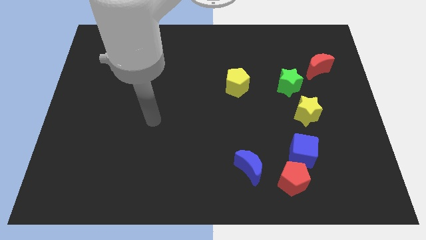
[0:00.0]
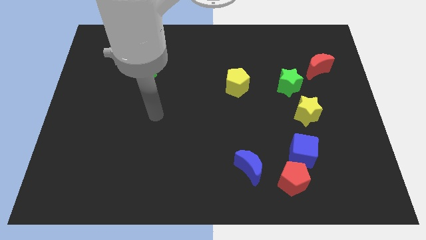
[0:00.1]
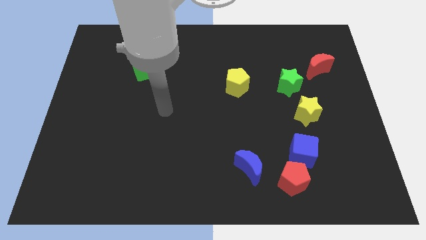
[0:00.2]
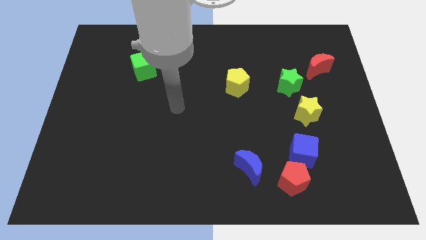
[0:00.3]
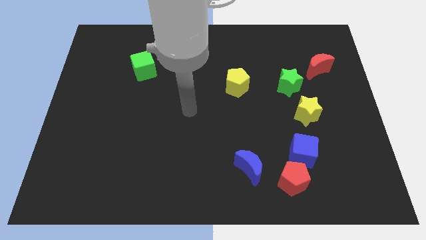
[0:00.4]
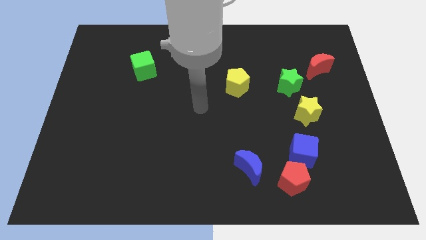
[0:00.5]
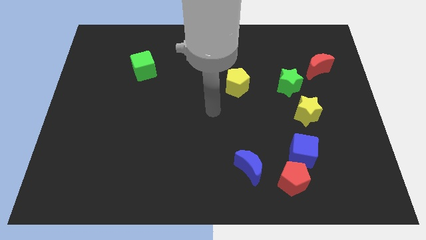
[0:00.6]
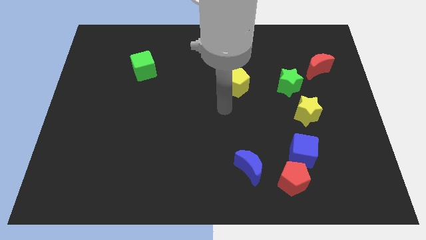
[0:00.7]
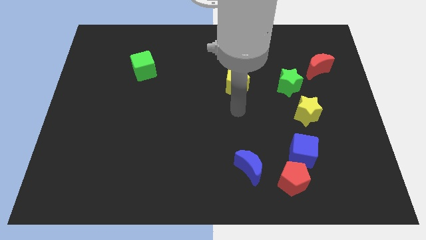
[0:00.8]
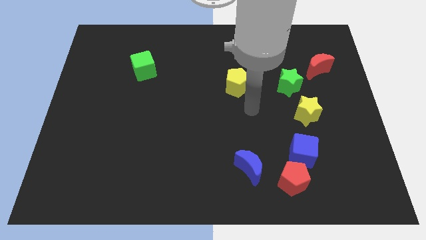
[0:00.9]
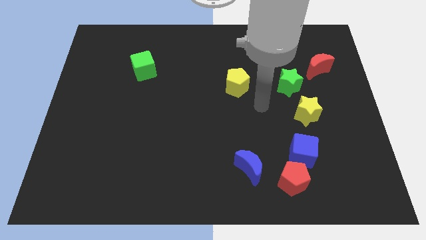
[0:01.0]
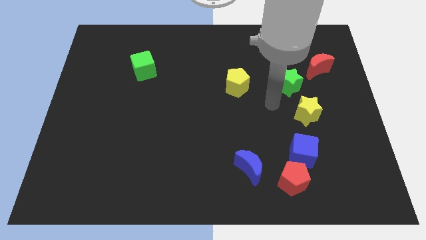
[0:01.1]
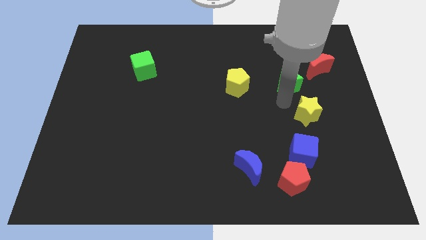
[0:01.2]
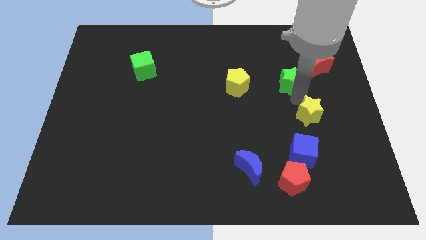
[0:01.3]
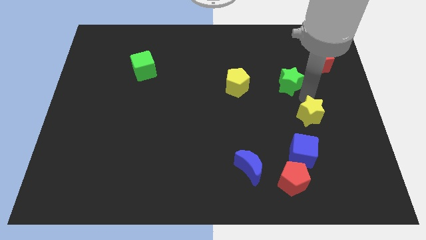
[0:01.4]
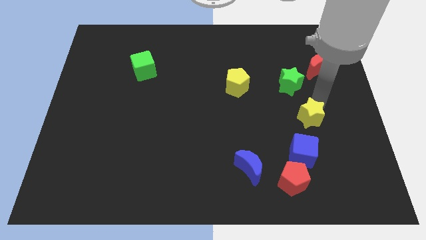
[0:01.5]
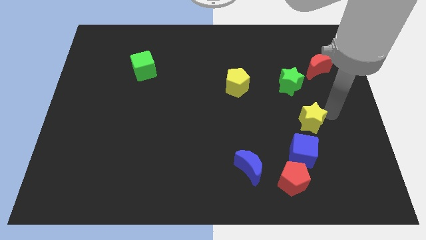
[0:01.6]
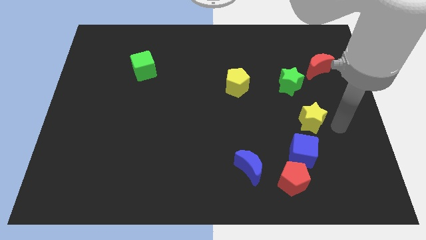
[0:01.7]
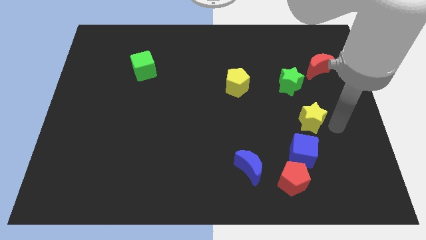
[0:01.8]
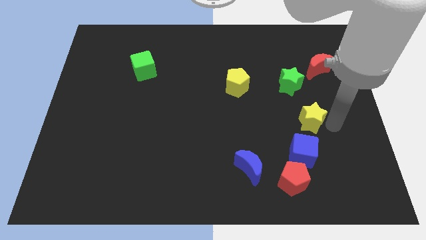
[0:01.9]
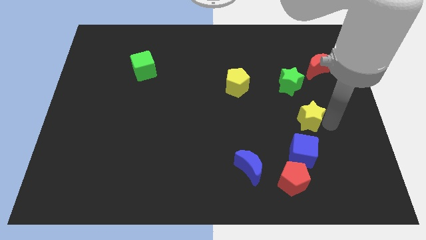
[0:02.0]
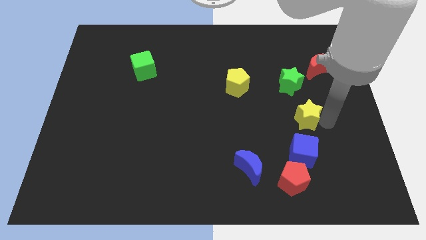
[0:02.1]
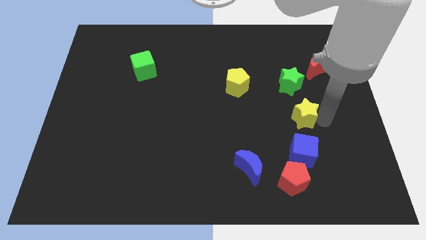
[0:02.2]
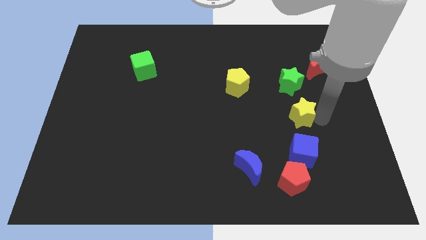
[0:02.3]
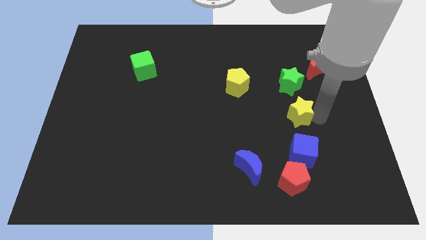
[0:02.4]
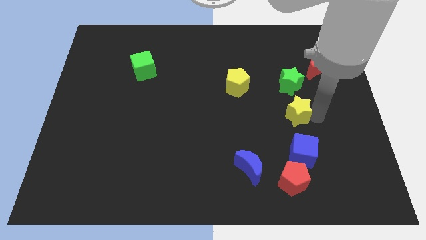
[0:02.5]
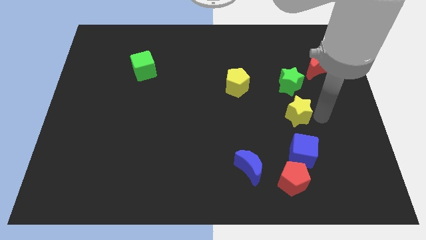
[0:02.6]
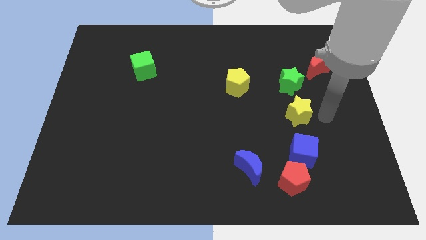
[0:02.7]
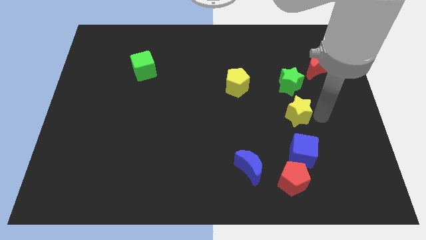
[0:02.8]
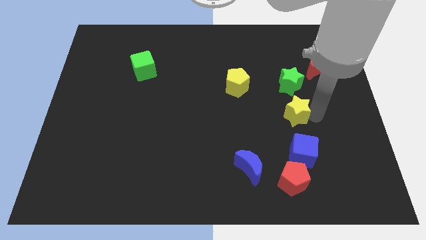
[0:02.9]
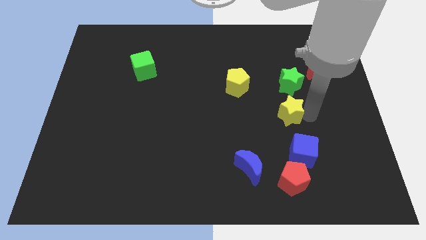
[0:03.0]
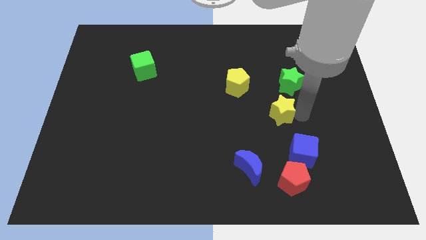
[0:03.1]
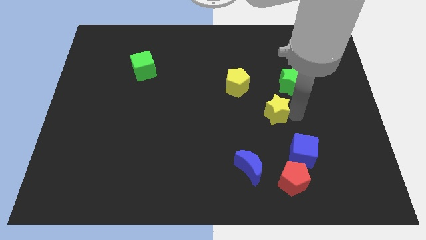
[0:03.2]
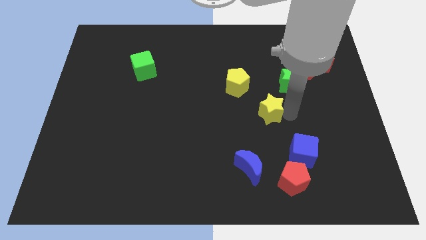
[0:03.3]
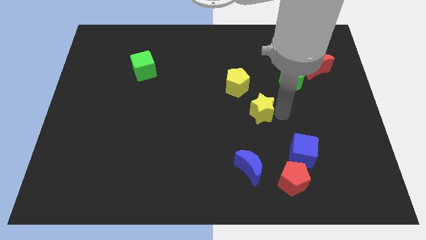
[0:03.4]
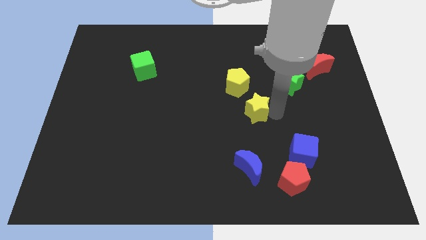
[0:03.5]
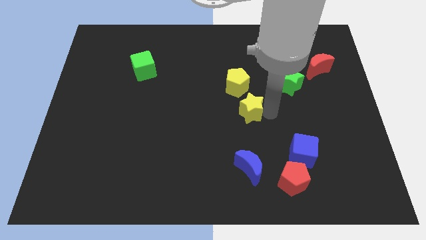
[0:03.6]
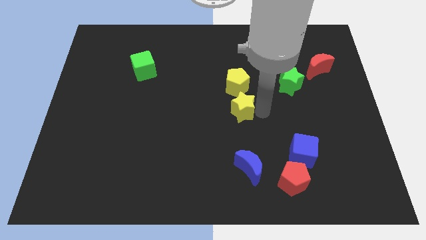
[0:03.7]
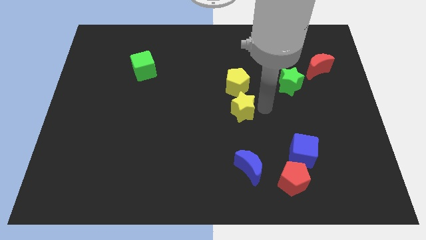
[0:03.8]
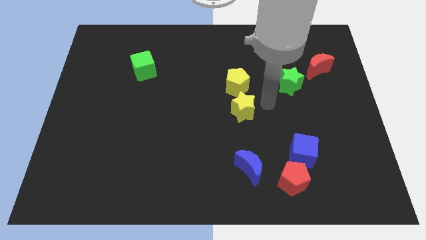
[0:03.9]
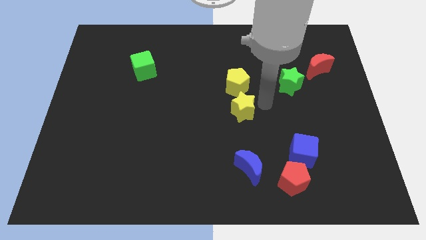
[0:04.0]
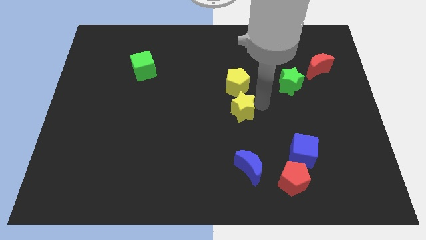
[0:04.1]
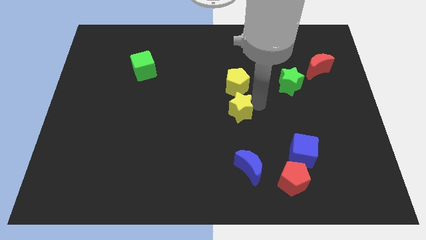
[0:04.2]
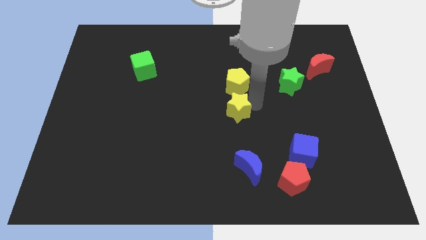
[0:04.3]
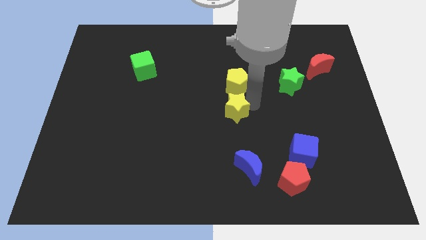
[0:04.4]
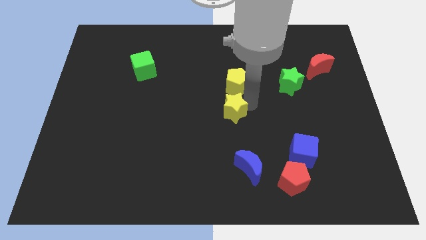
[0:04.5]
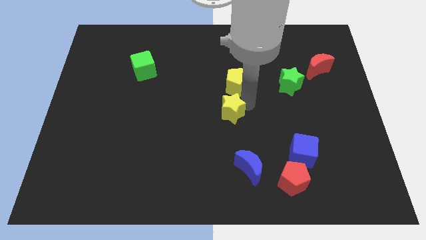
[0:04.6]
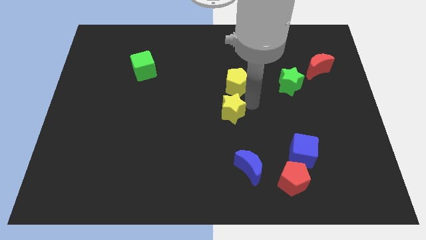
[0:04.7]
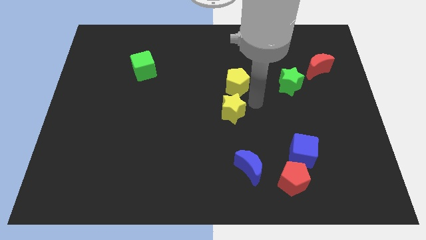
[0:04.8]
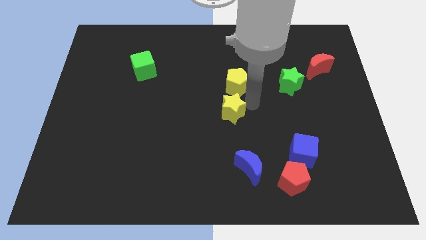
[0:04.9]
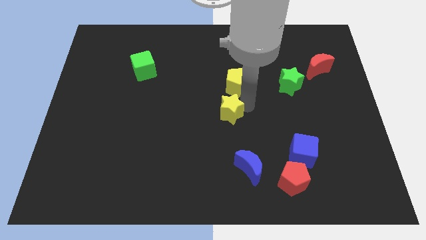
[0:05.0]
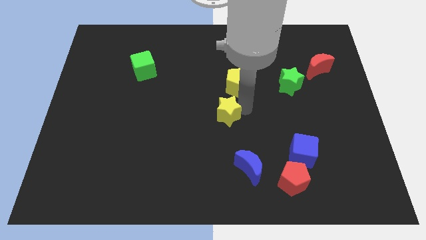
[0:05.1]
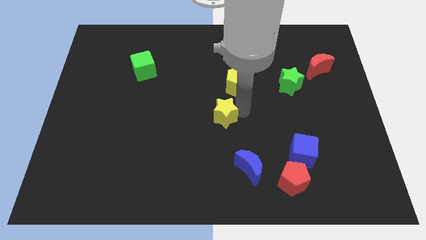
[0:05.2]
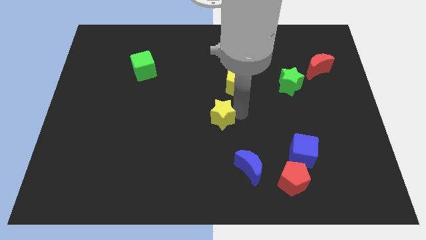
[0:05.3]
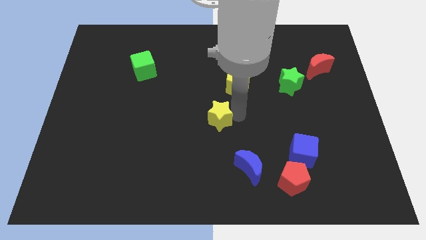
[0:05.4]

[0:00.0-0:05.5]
slide the yellow star to the left

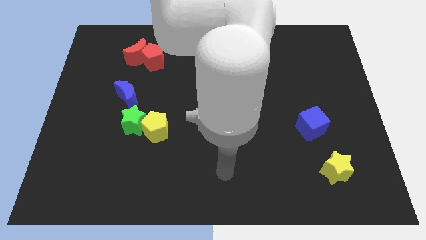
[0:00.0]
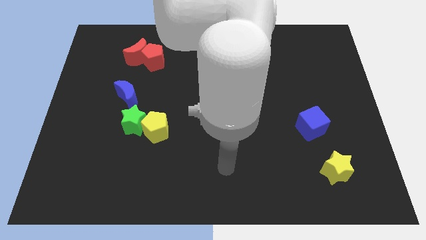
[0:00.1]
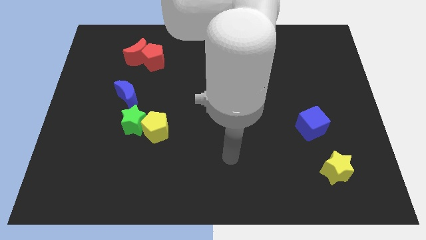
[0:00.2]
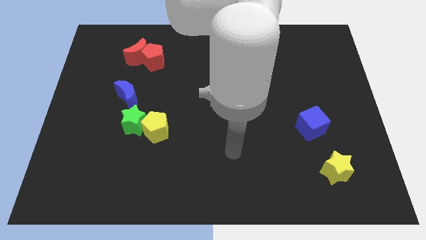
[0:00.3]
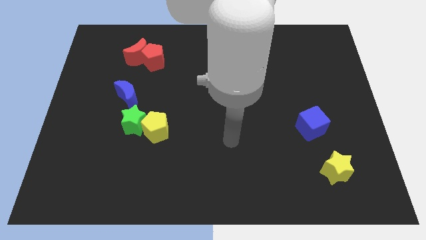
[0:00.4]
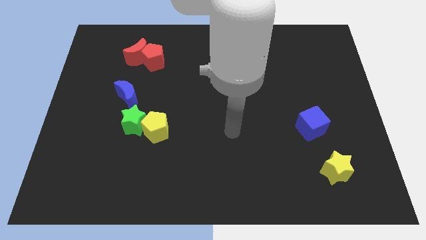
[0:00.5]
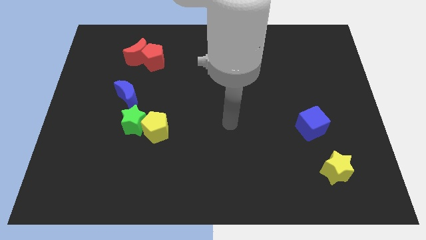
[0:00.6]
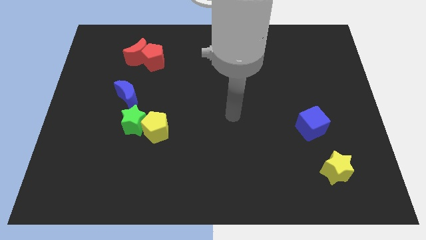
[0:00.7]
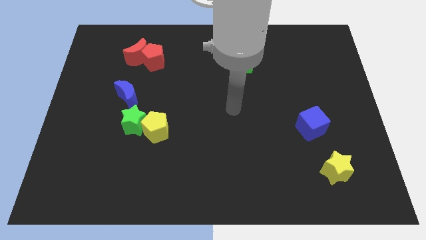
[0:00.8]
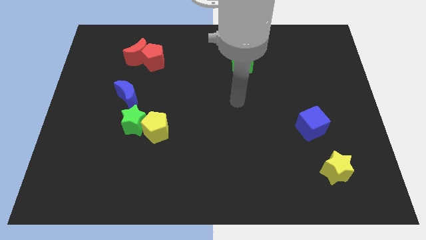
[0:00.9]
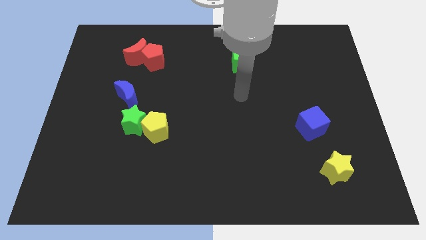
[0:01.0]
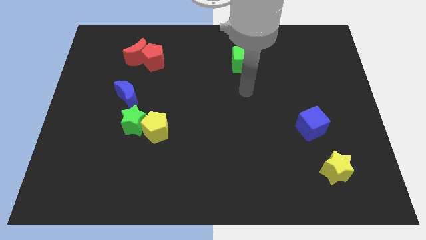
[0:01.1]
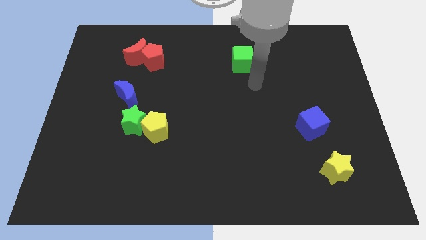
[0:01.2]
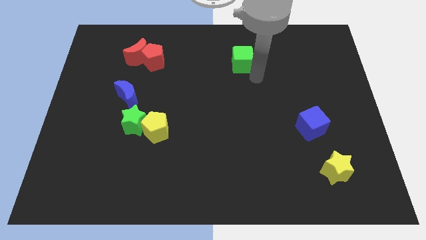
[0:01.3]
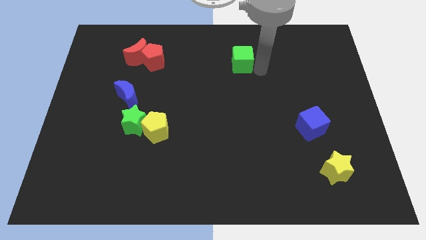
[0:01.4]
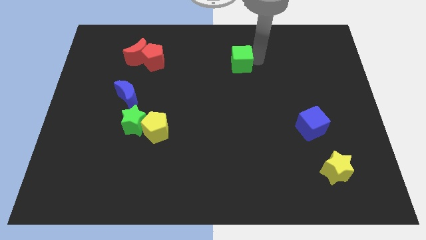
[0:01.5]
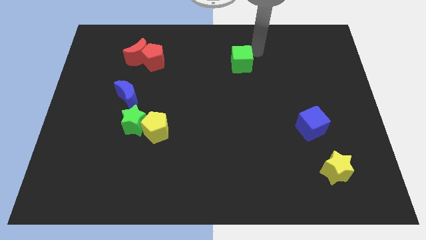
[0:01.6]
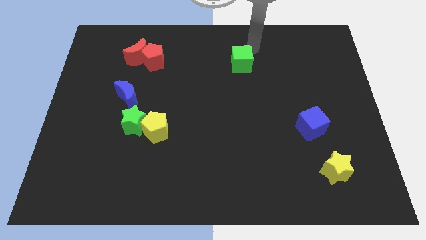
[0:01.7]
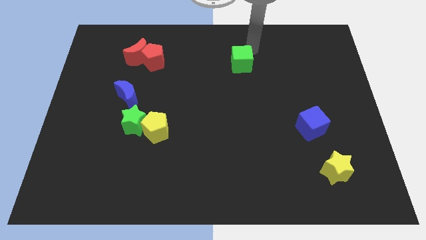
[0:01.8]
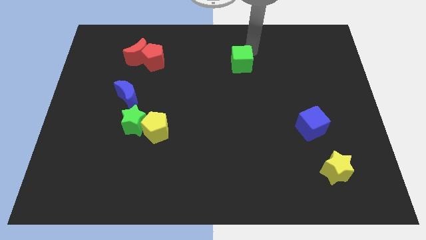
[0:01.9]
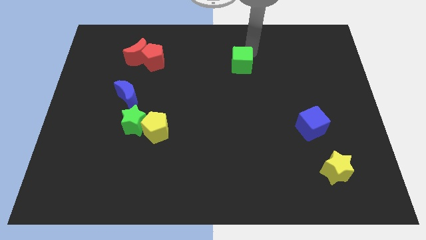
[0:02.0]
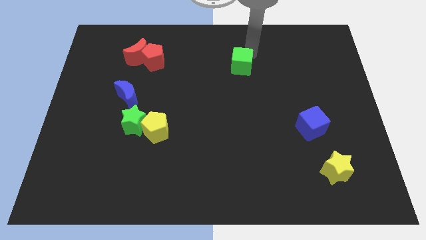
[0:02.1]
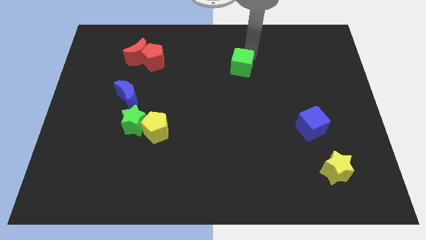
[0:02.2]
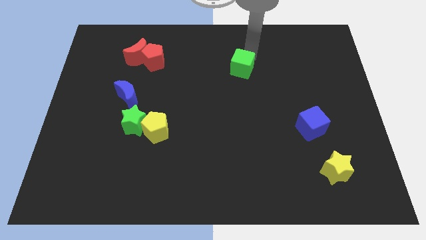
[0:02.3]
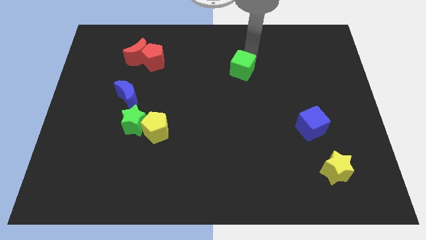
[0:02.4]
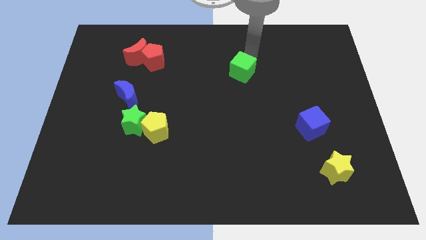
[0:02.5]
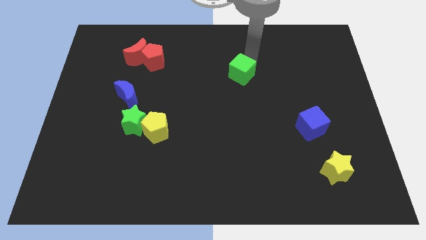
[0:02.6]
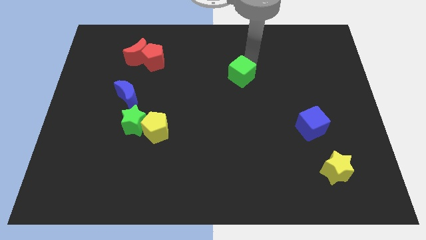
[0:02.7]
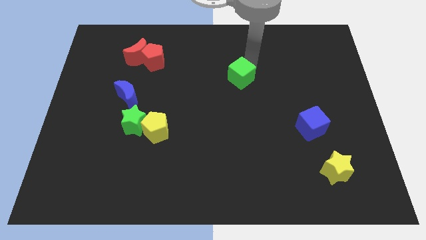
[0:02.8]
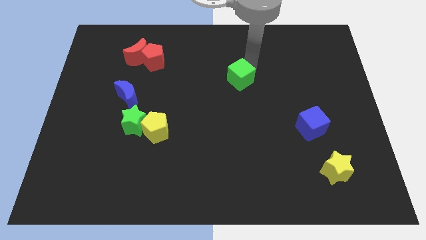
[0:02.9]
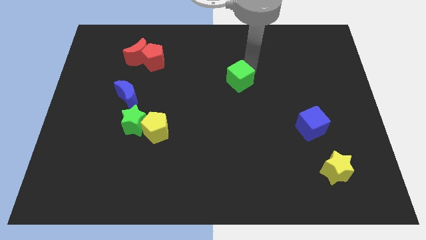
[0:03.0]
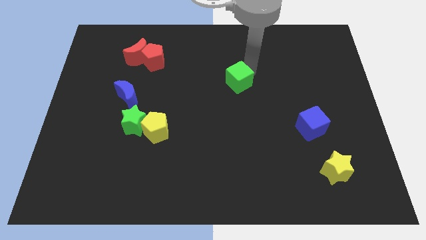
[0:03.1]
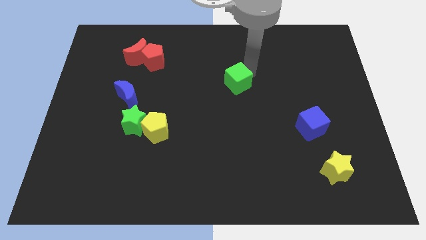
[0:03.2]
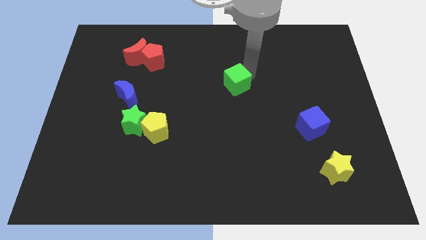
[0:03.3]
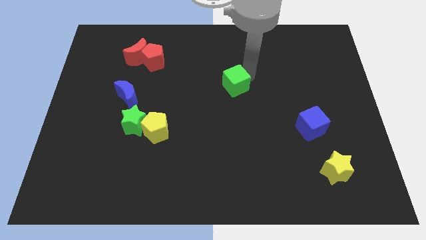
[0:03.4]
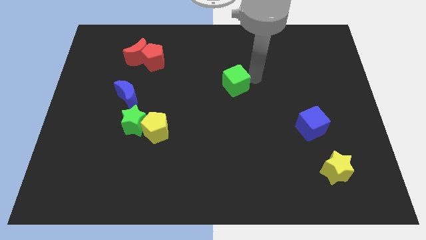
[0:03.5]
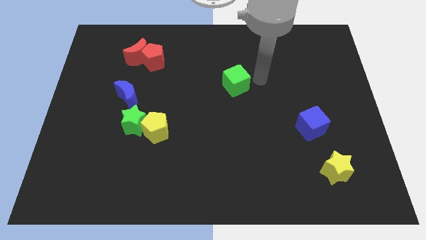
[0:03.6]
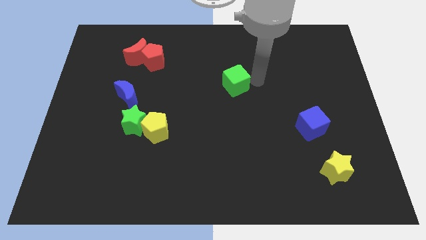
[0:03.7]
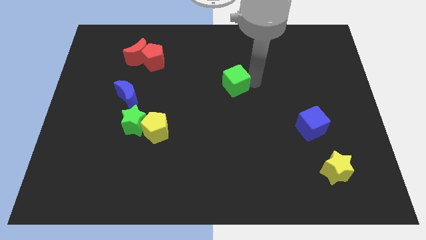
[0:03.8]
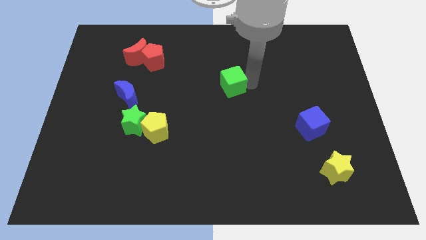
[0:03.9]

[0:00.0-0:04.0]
slightly slide the green cube diagonally down and to the left
